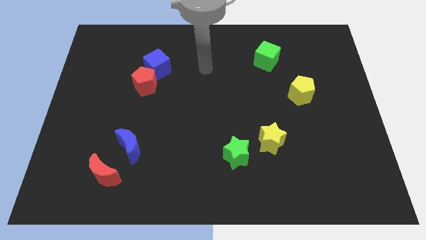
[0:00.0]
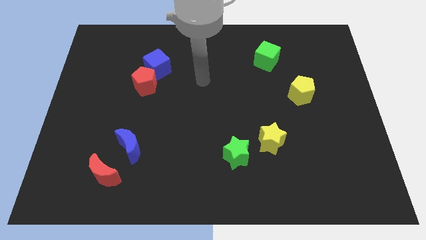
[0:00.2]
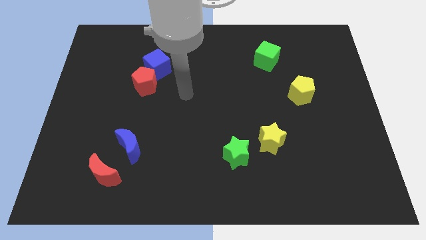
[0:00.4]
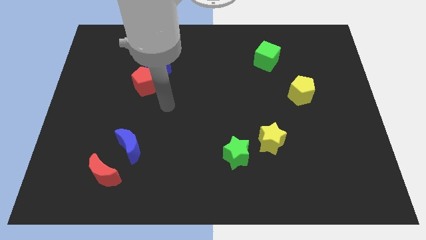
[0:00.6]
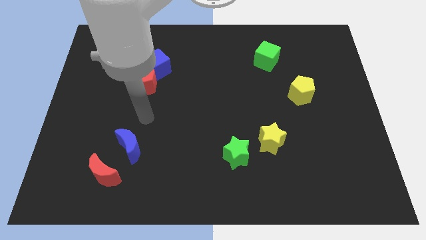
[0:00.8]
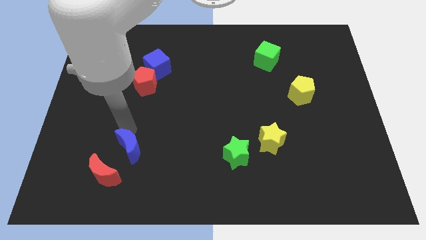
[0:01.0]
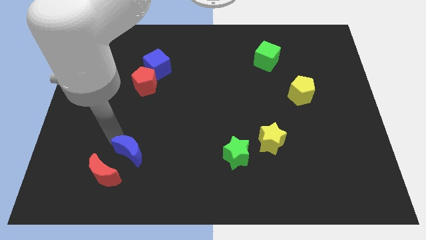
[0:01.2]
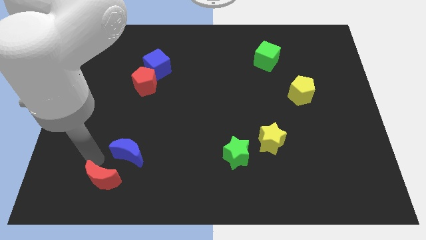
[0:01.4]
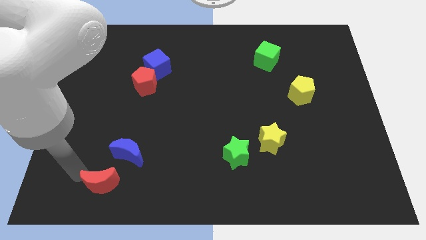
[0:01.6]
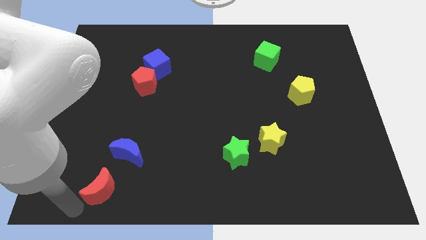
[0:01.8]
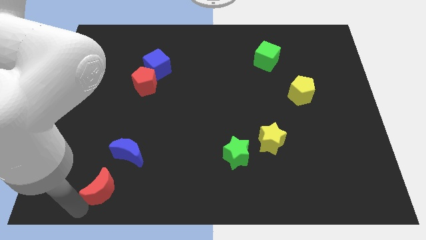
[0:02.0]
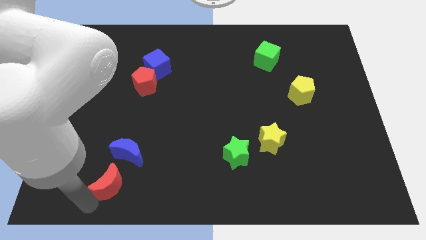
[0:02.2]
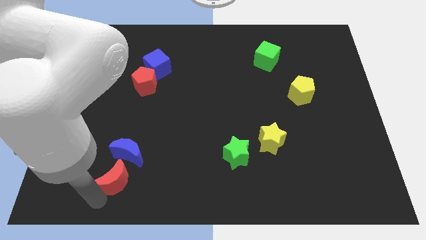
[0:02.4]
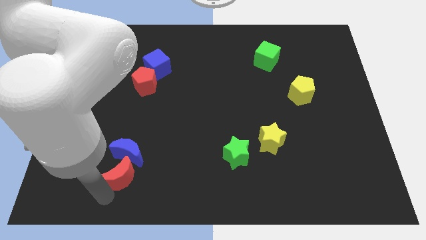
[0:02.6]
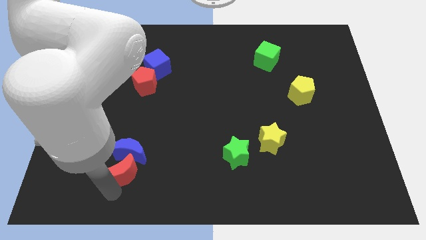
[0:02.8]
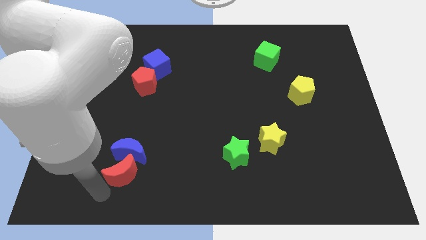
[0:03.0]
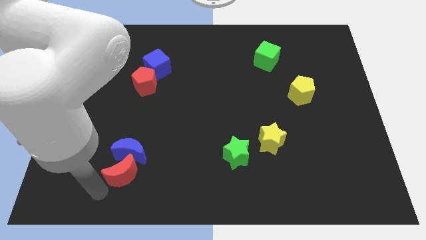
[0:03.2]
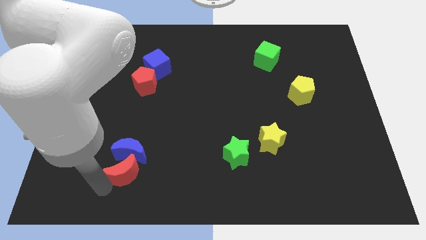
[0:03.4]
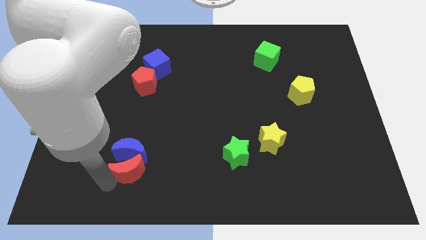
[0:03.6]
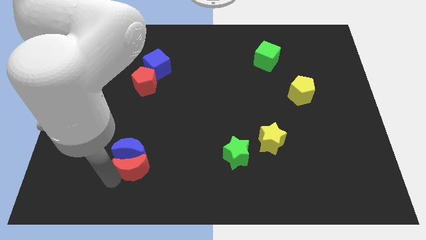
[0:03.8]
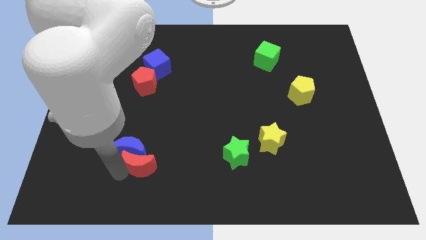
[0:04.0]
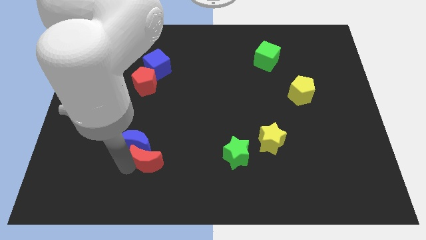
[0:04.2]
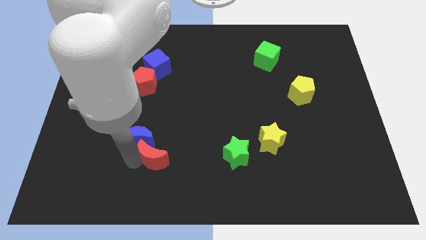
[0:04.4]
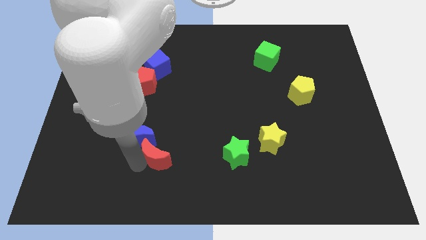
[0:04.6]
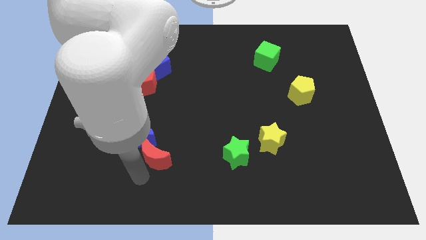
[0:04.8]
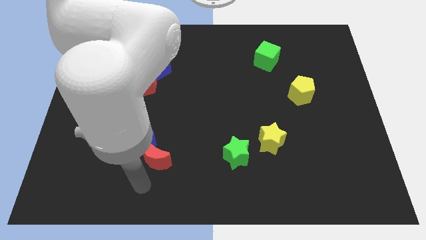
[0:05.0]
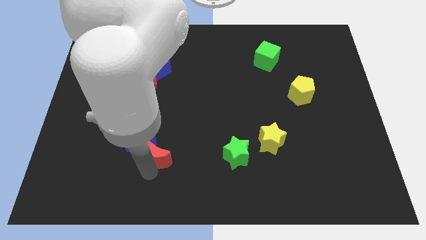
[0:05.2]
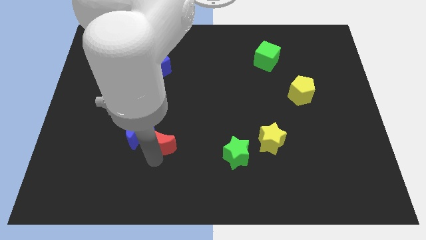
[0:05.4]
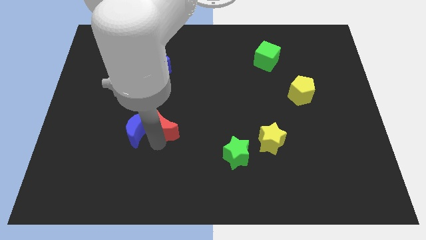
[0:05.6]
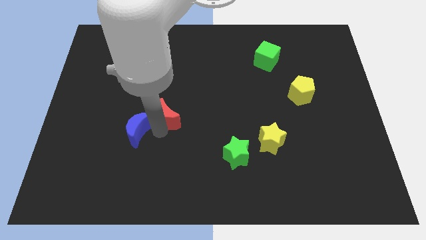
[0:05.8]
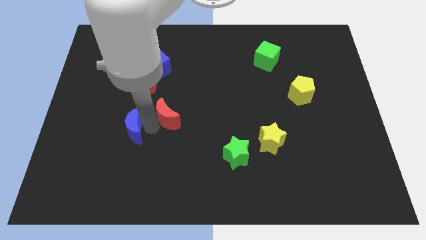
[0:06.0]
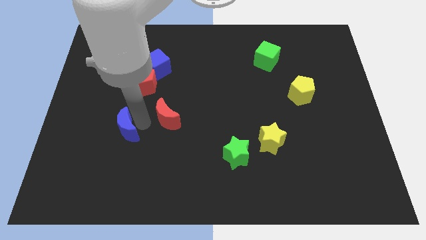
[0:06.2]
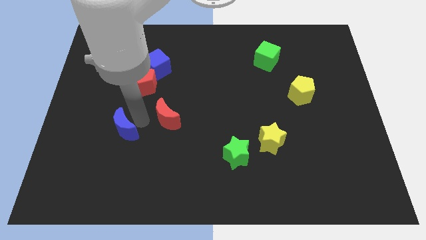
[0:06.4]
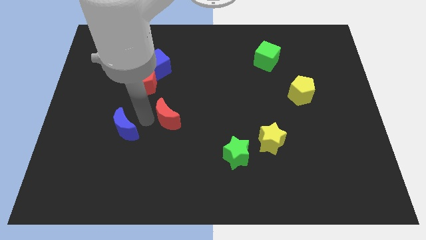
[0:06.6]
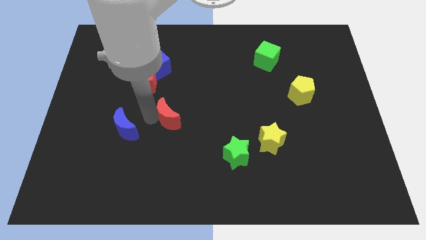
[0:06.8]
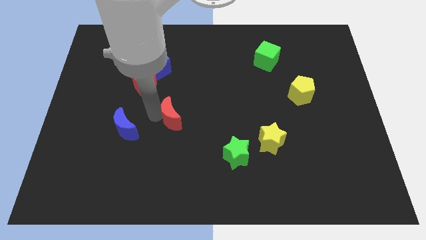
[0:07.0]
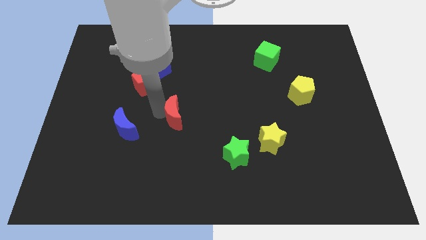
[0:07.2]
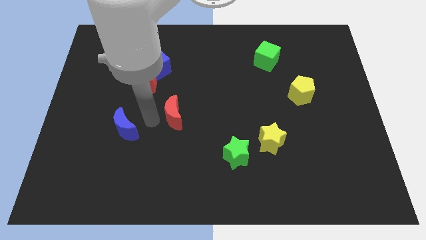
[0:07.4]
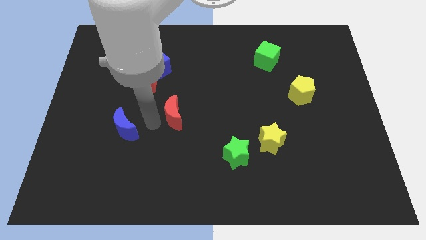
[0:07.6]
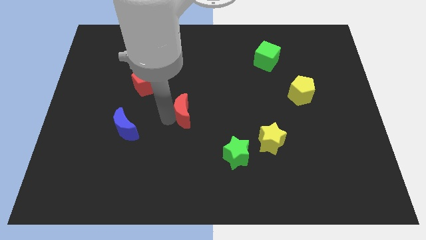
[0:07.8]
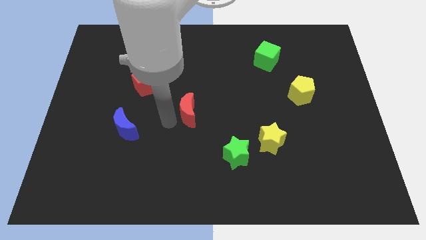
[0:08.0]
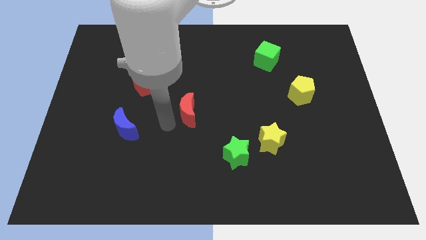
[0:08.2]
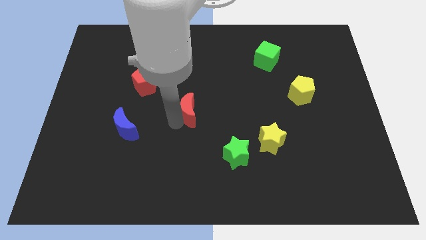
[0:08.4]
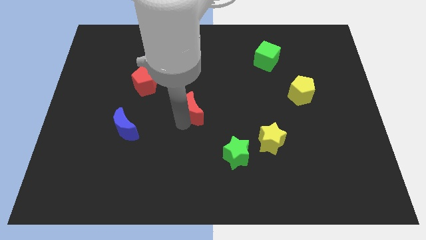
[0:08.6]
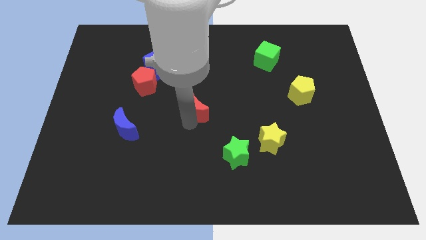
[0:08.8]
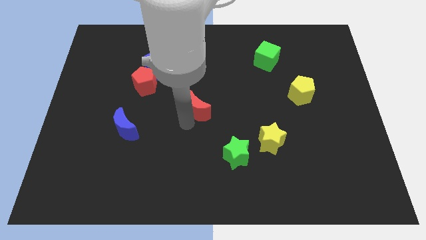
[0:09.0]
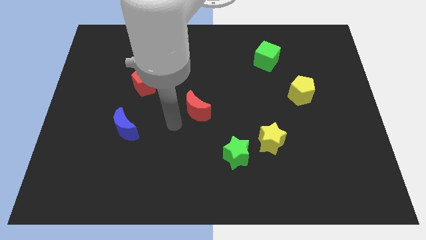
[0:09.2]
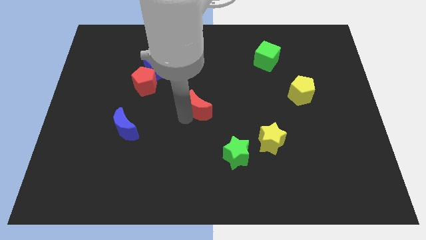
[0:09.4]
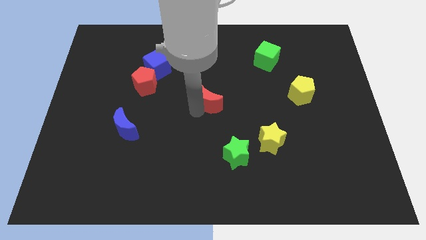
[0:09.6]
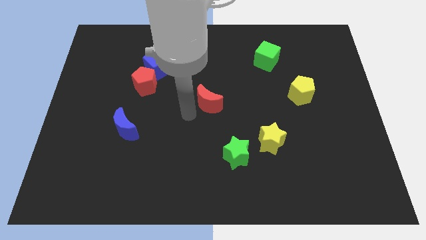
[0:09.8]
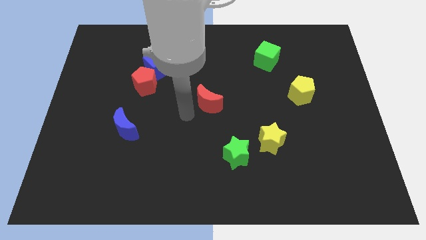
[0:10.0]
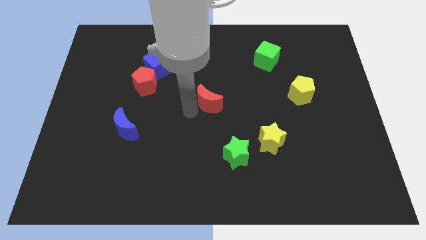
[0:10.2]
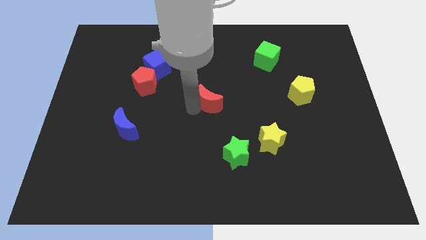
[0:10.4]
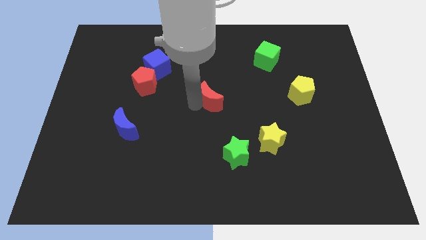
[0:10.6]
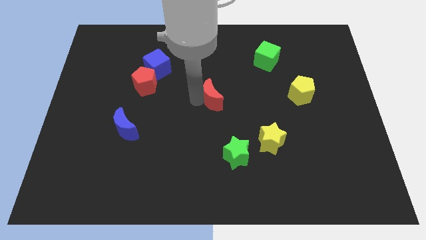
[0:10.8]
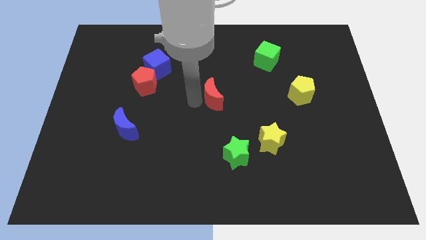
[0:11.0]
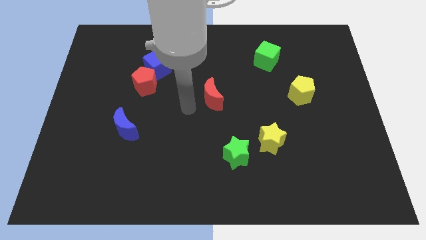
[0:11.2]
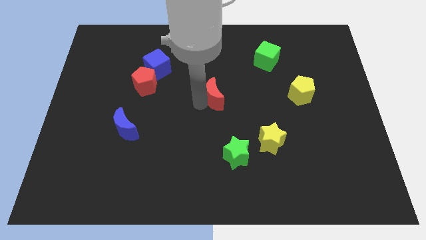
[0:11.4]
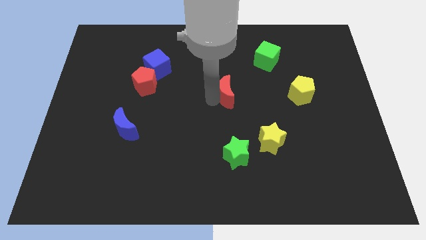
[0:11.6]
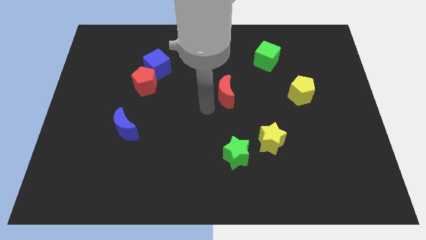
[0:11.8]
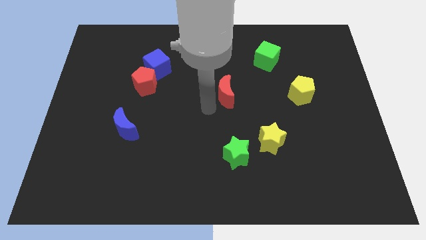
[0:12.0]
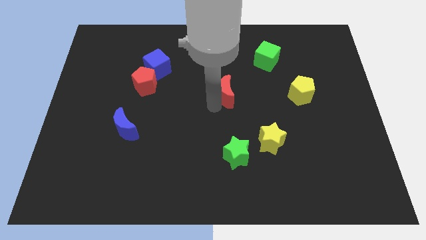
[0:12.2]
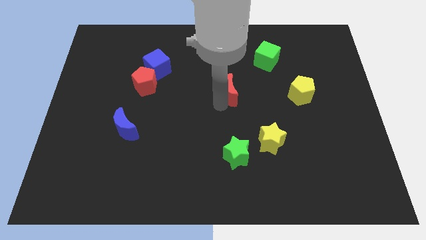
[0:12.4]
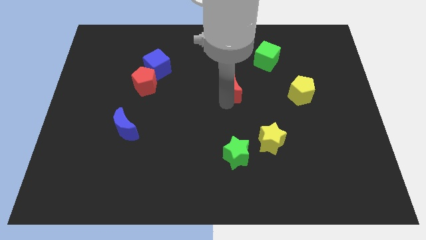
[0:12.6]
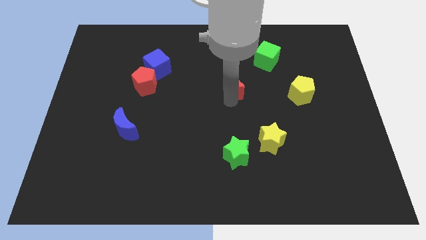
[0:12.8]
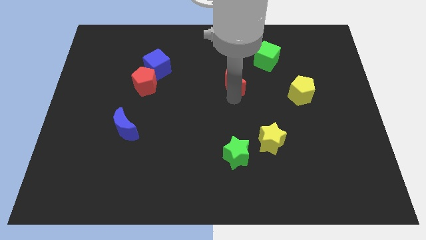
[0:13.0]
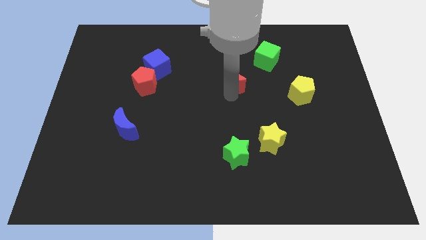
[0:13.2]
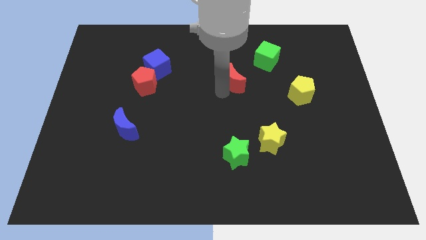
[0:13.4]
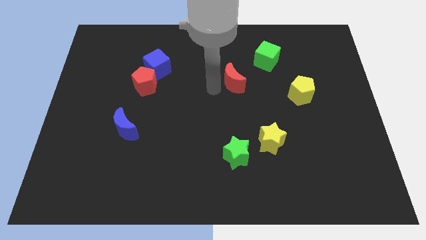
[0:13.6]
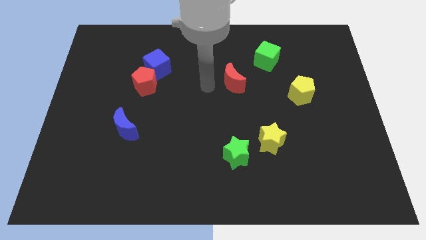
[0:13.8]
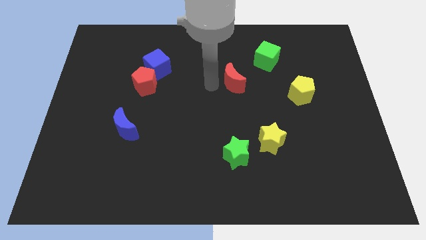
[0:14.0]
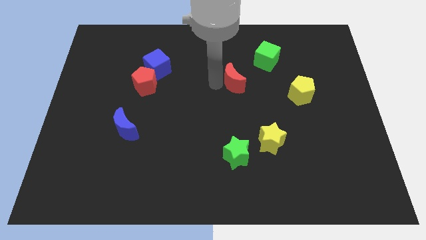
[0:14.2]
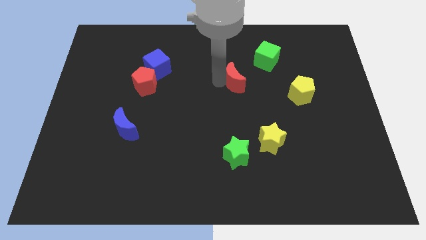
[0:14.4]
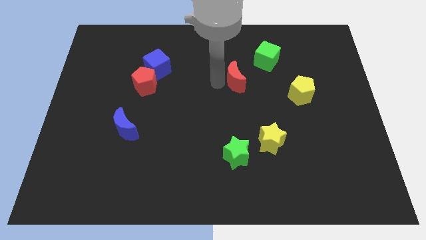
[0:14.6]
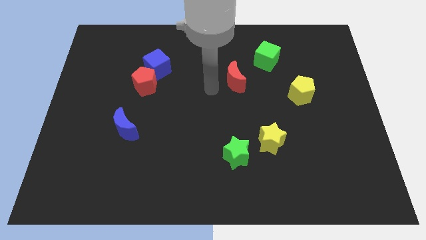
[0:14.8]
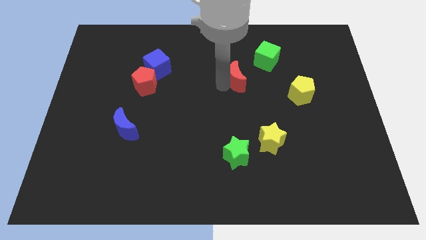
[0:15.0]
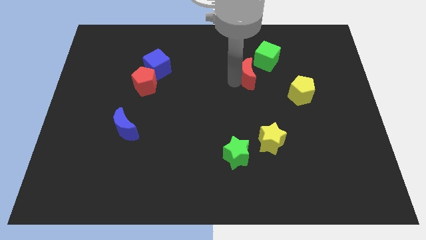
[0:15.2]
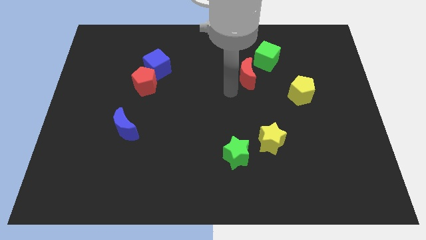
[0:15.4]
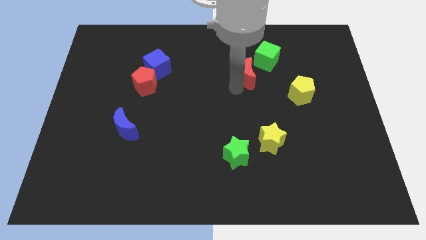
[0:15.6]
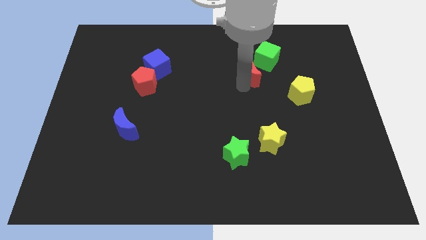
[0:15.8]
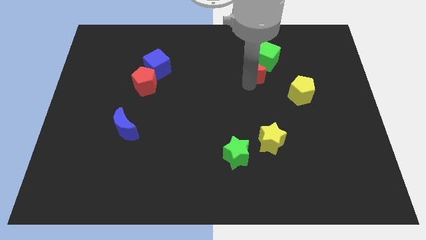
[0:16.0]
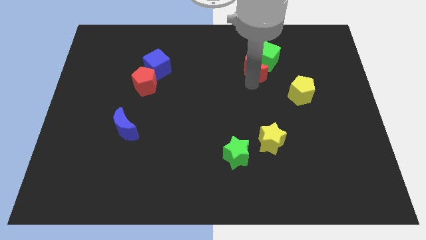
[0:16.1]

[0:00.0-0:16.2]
push the red moon towards the green cube
